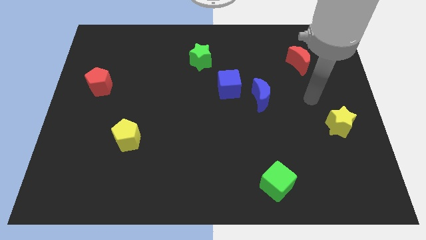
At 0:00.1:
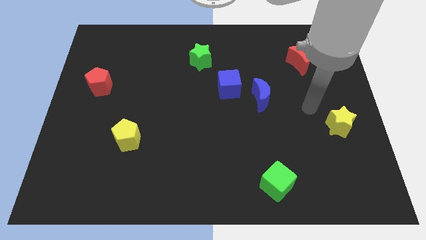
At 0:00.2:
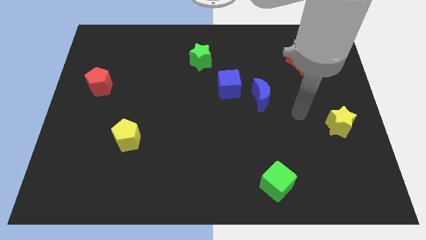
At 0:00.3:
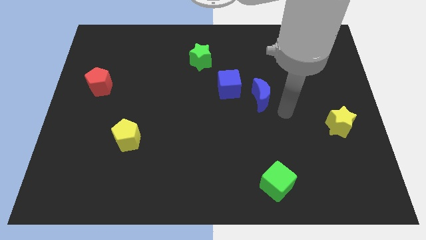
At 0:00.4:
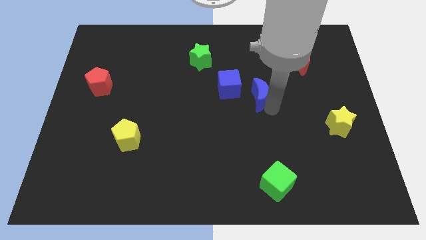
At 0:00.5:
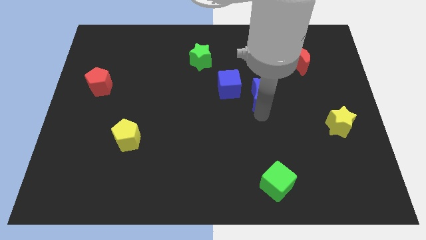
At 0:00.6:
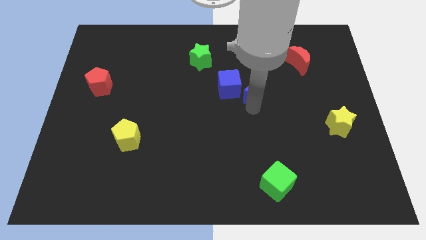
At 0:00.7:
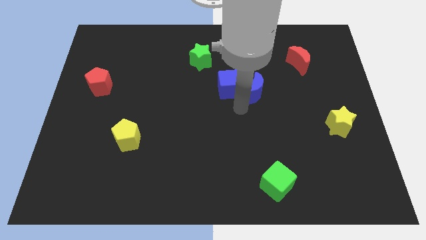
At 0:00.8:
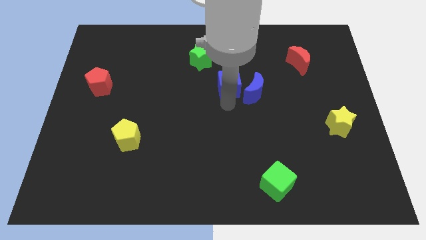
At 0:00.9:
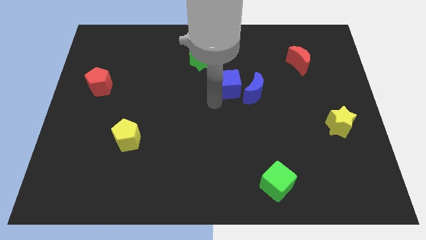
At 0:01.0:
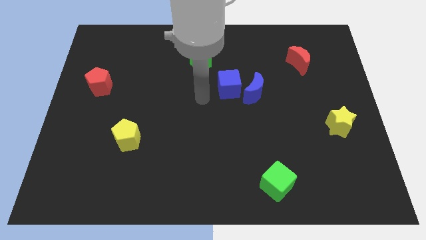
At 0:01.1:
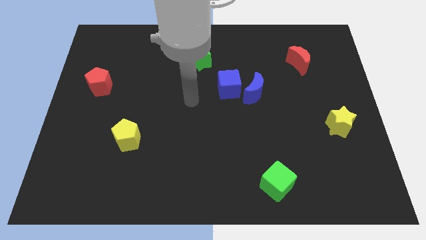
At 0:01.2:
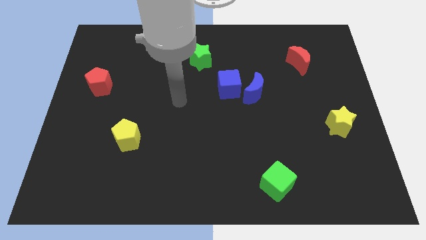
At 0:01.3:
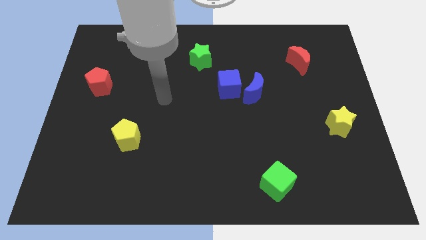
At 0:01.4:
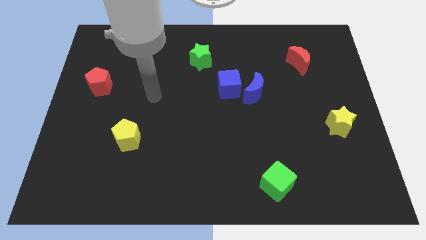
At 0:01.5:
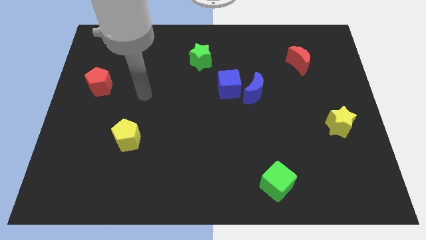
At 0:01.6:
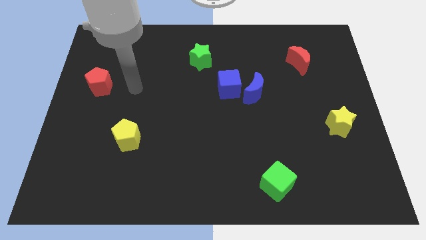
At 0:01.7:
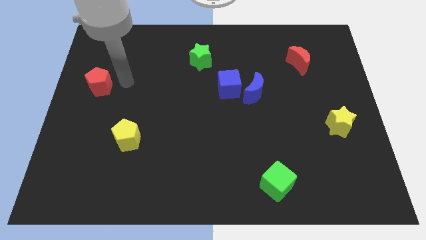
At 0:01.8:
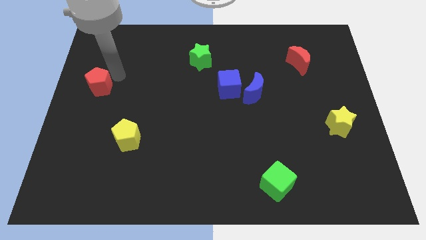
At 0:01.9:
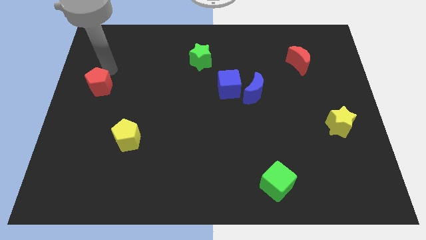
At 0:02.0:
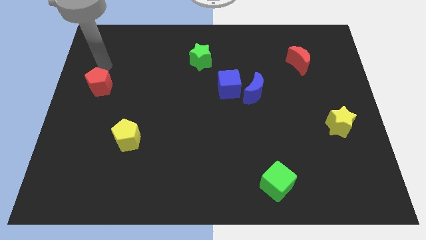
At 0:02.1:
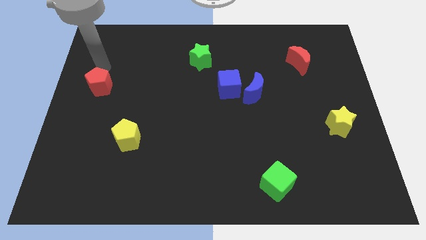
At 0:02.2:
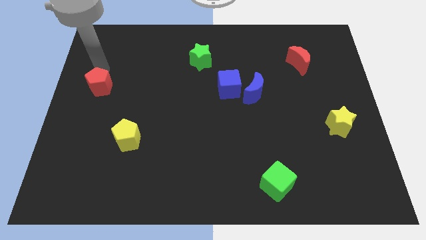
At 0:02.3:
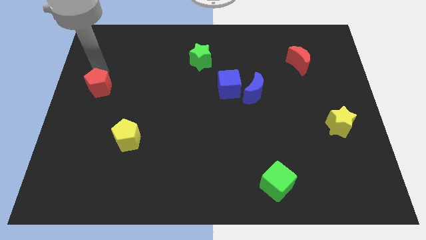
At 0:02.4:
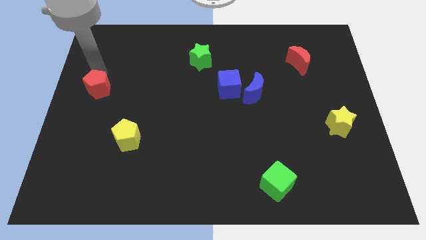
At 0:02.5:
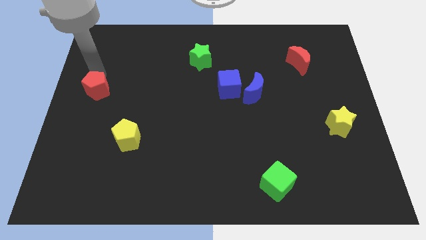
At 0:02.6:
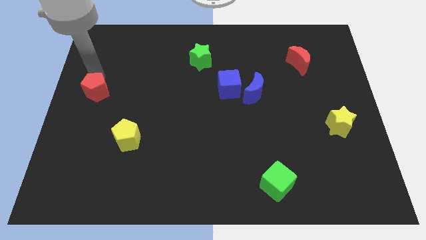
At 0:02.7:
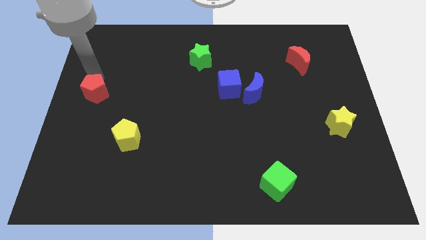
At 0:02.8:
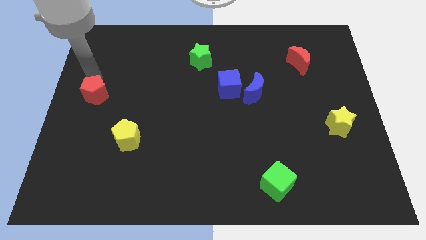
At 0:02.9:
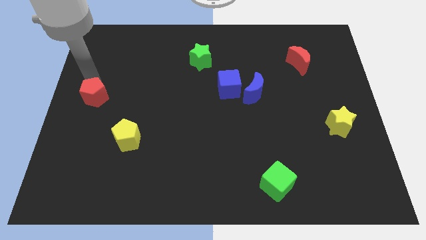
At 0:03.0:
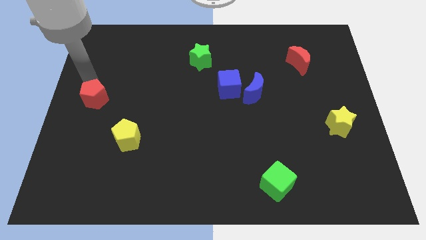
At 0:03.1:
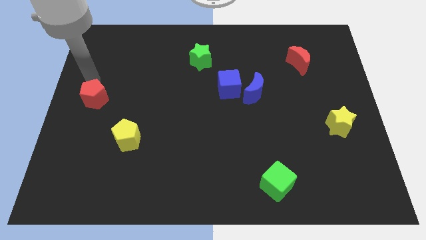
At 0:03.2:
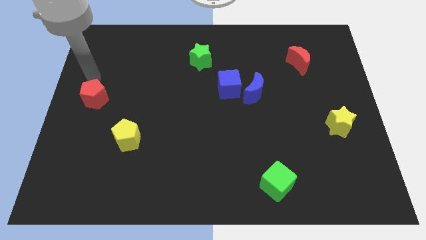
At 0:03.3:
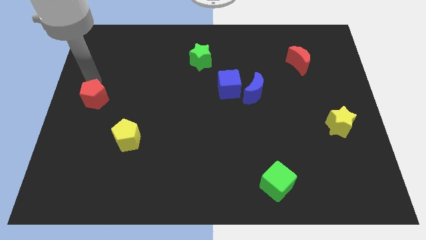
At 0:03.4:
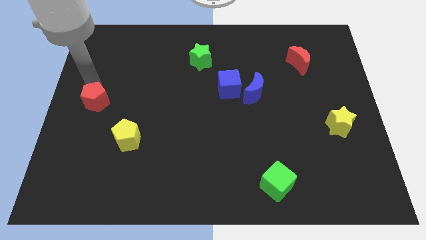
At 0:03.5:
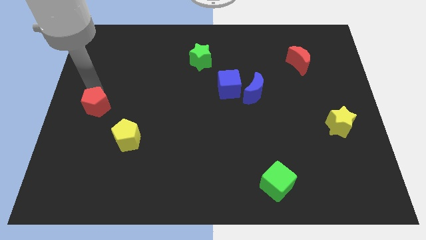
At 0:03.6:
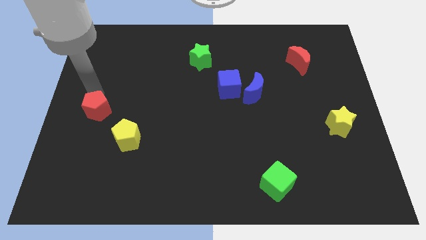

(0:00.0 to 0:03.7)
move the red pentagon down a little

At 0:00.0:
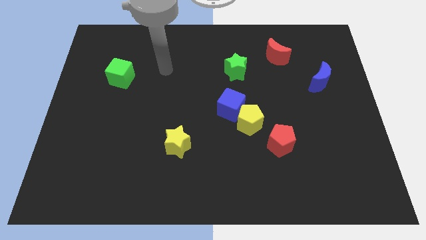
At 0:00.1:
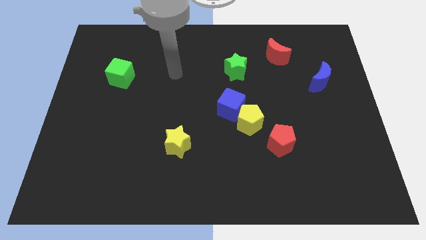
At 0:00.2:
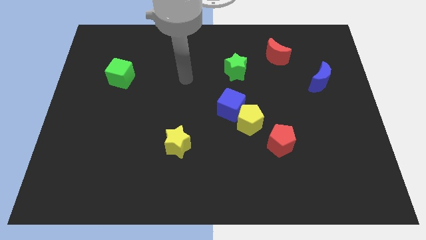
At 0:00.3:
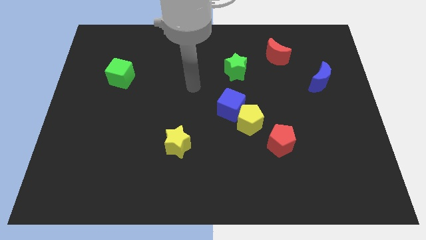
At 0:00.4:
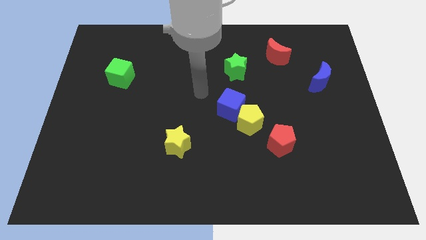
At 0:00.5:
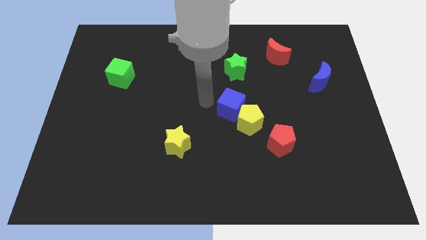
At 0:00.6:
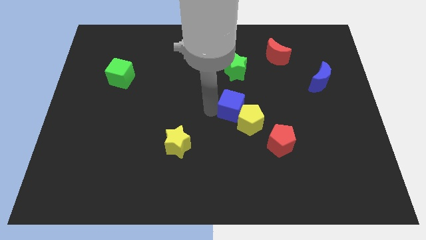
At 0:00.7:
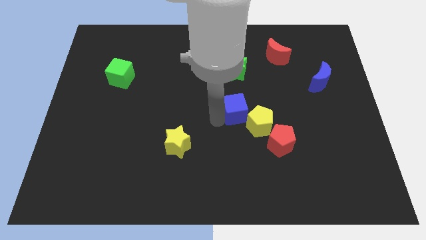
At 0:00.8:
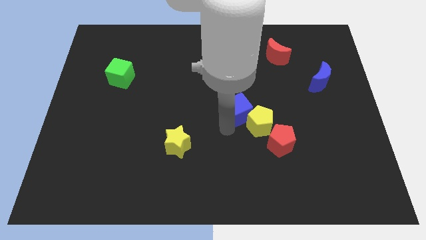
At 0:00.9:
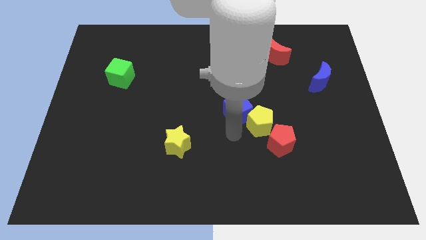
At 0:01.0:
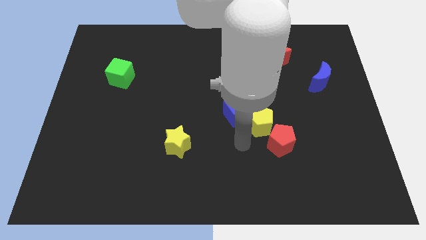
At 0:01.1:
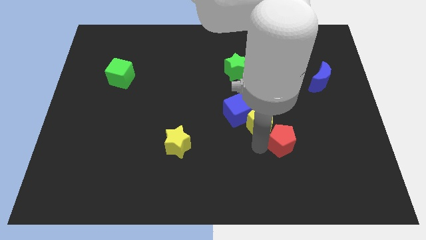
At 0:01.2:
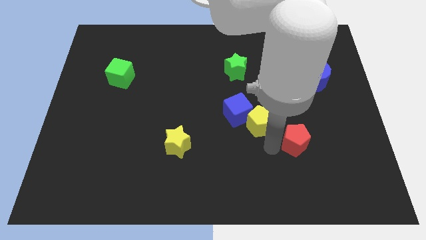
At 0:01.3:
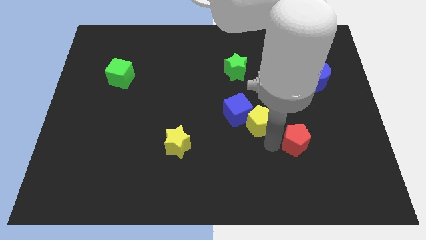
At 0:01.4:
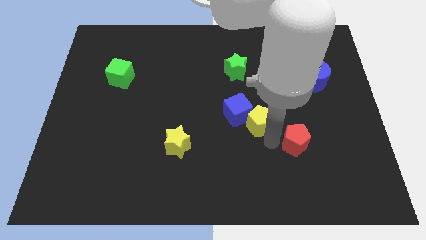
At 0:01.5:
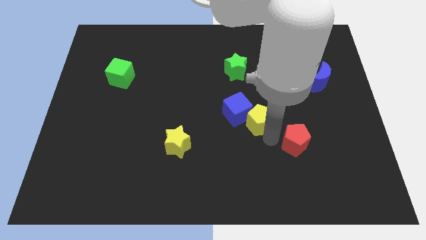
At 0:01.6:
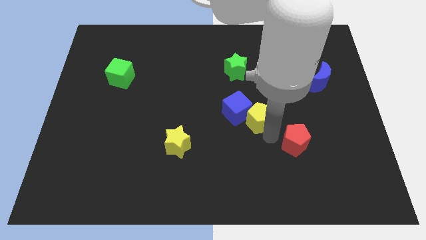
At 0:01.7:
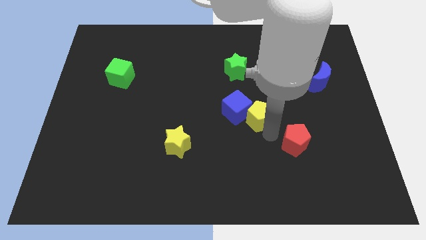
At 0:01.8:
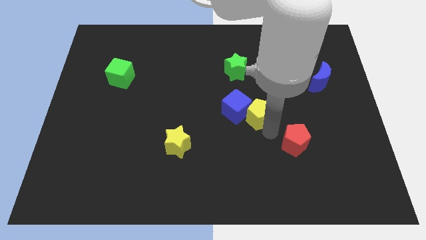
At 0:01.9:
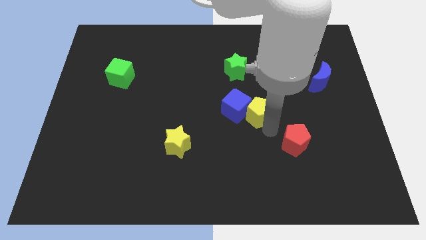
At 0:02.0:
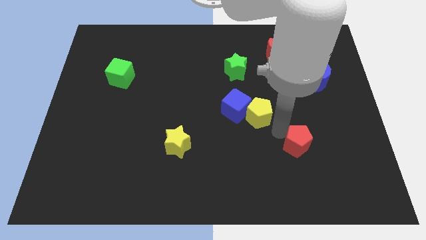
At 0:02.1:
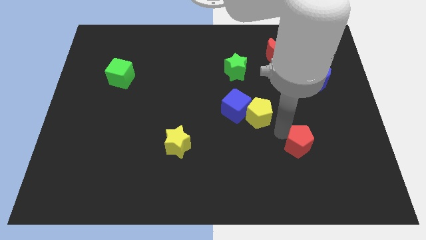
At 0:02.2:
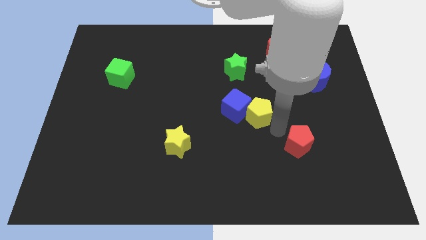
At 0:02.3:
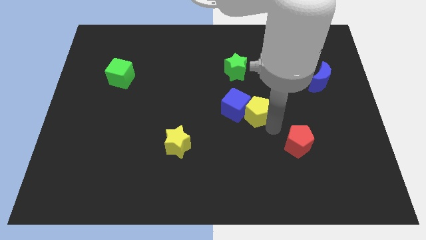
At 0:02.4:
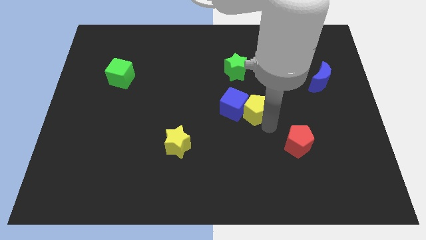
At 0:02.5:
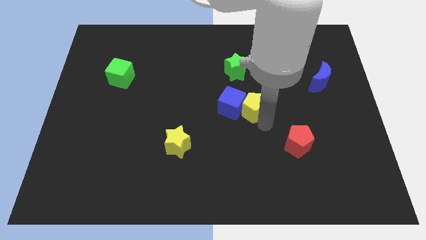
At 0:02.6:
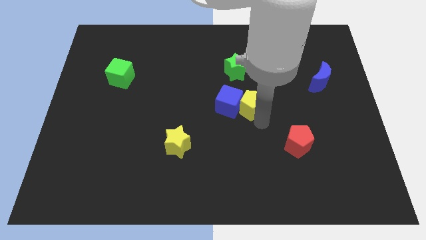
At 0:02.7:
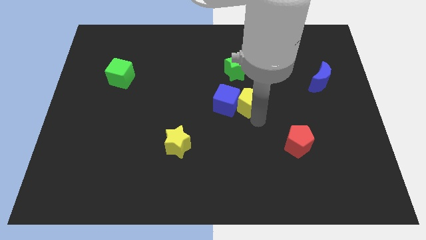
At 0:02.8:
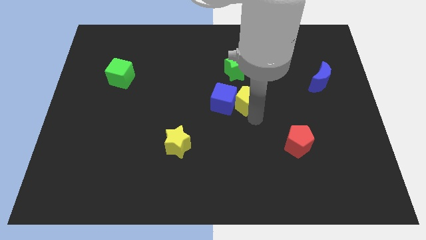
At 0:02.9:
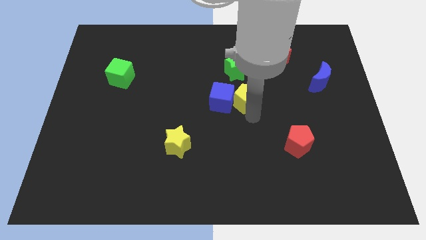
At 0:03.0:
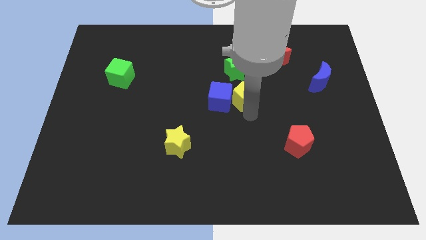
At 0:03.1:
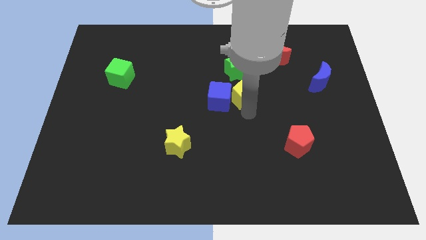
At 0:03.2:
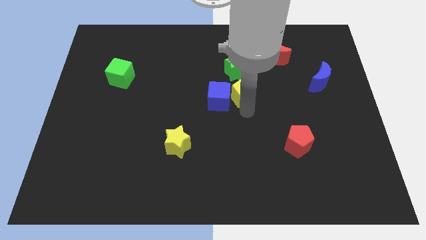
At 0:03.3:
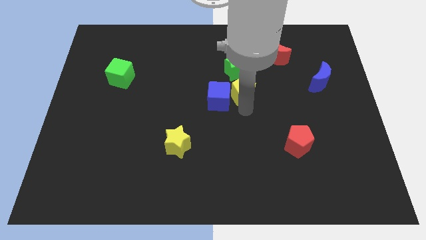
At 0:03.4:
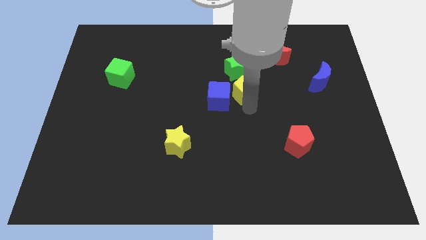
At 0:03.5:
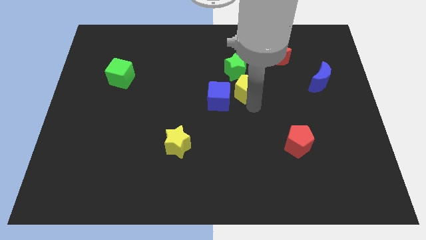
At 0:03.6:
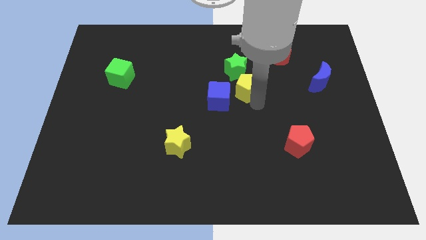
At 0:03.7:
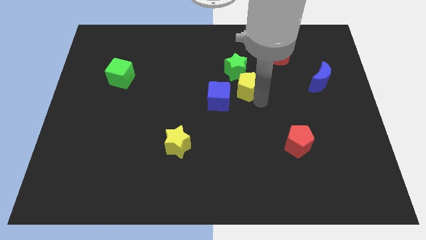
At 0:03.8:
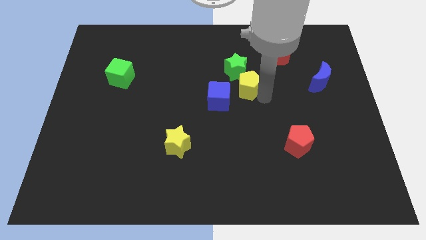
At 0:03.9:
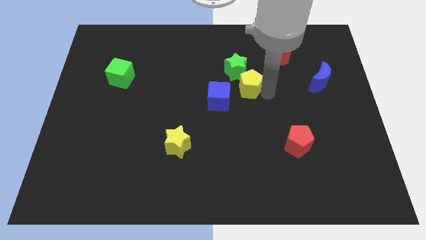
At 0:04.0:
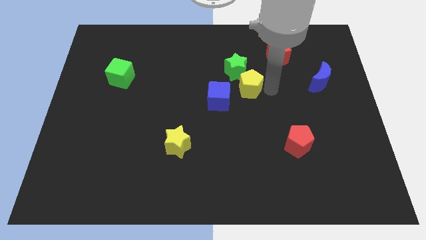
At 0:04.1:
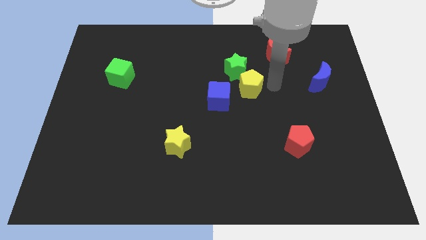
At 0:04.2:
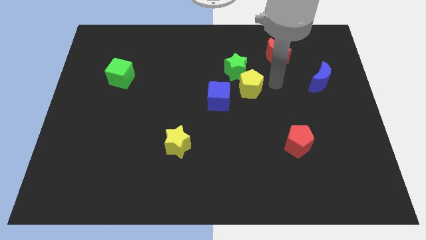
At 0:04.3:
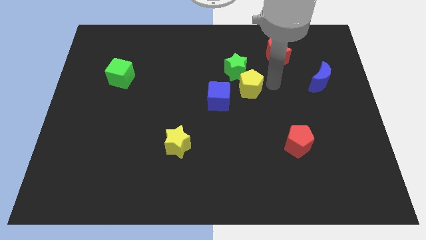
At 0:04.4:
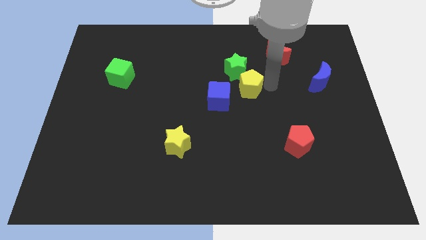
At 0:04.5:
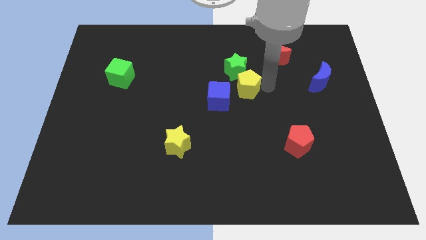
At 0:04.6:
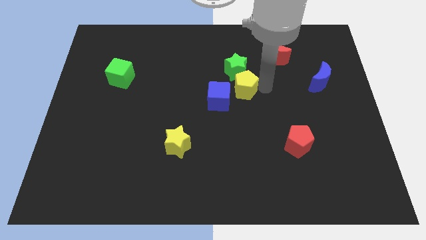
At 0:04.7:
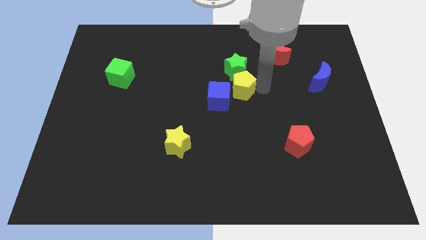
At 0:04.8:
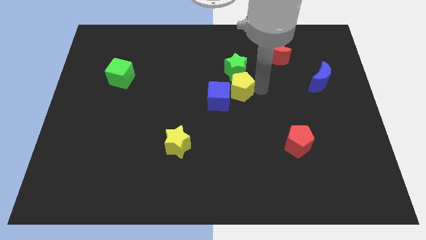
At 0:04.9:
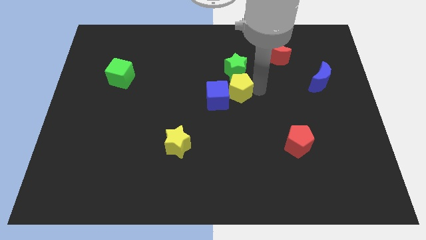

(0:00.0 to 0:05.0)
slightly move the yellow pentagon diagonally upwards and to the left
